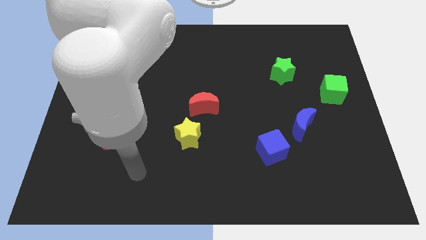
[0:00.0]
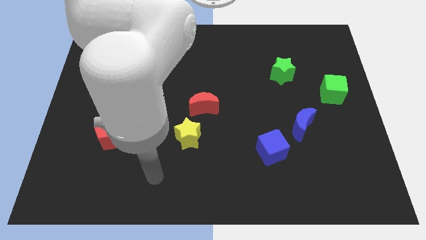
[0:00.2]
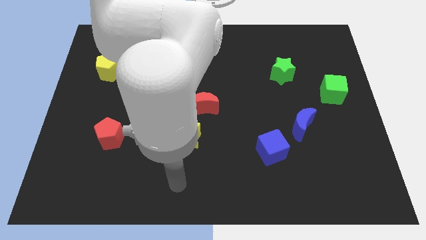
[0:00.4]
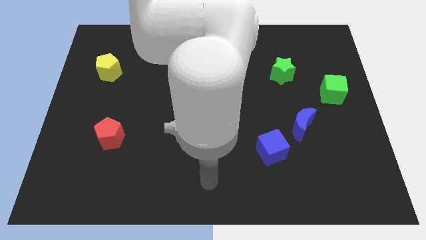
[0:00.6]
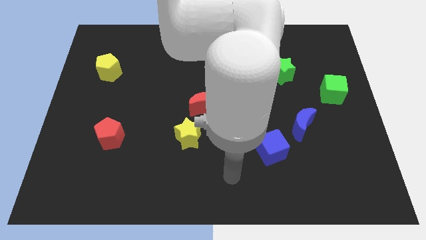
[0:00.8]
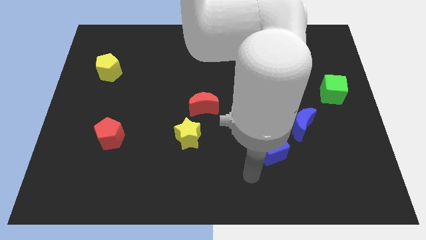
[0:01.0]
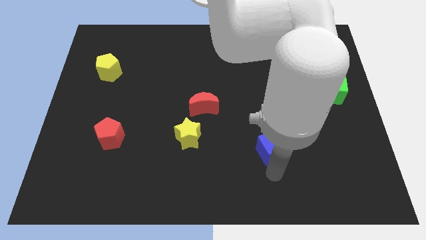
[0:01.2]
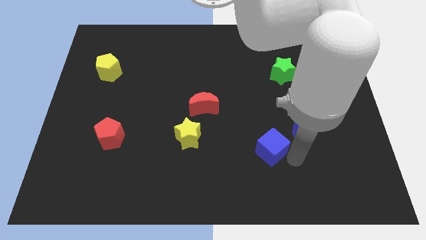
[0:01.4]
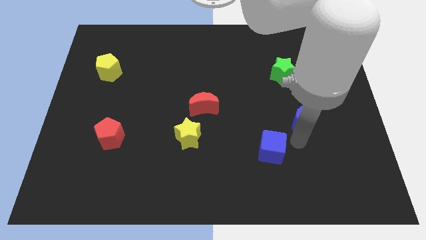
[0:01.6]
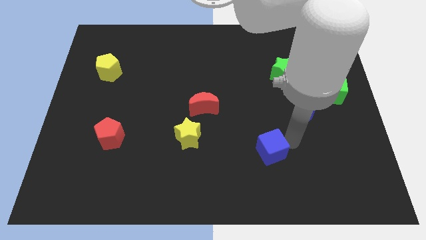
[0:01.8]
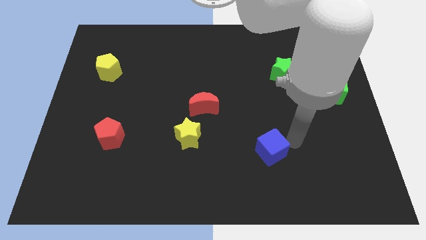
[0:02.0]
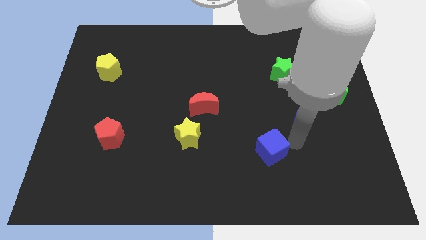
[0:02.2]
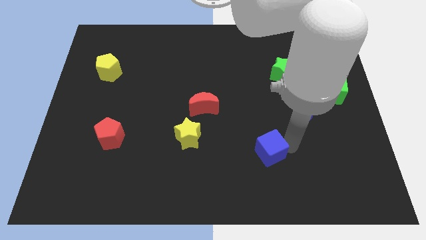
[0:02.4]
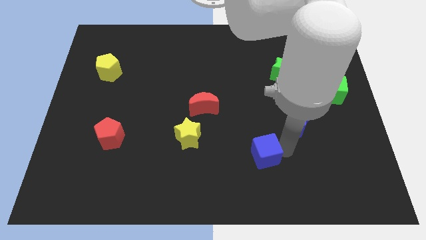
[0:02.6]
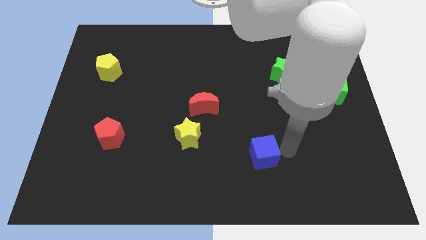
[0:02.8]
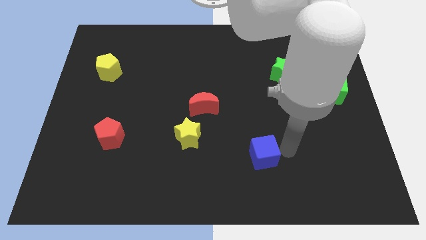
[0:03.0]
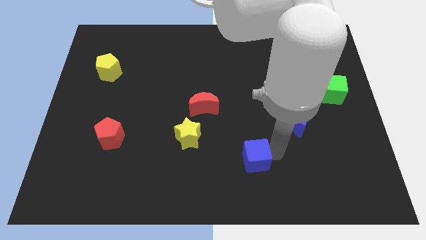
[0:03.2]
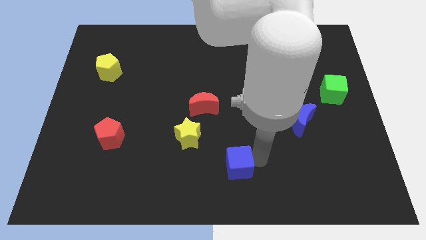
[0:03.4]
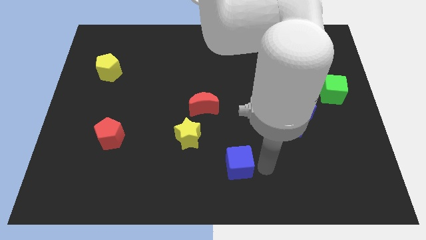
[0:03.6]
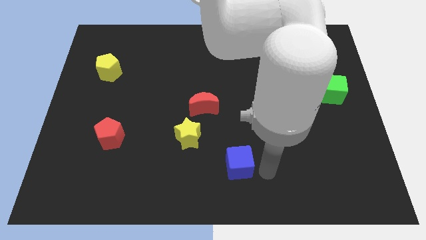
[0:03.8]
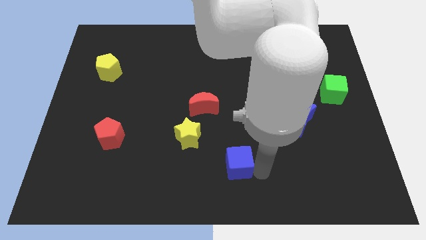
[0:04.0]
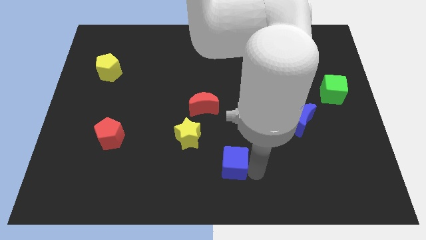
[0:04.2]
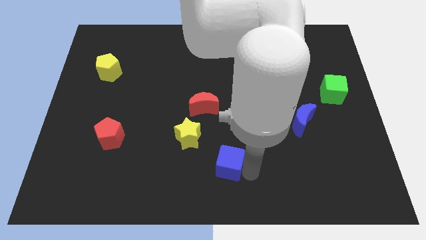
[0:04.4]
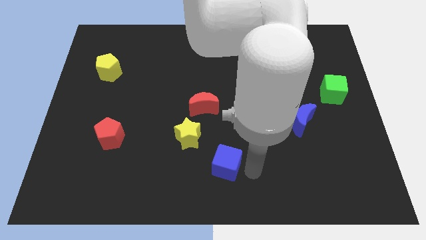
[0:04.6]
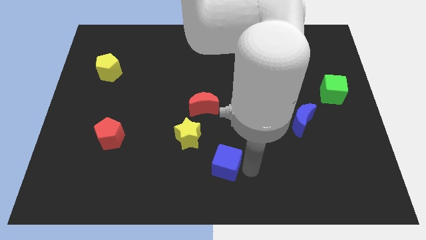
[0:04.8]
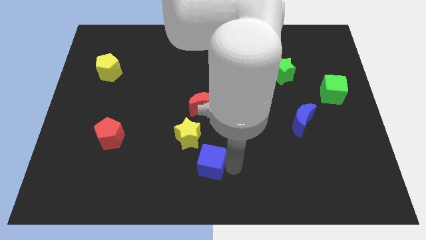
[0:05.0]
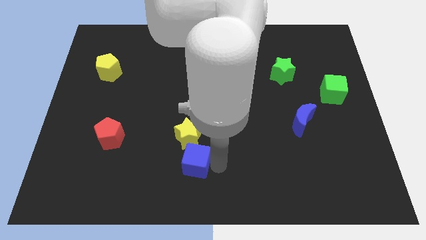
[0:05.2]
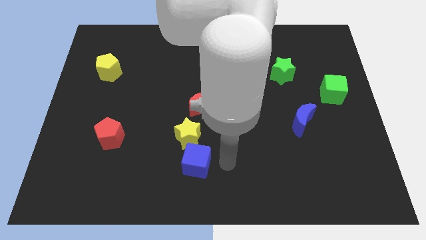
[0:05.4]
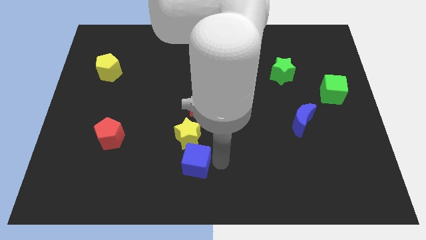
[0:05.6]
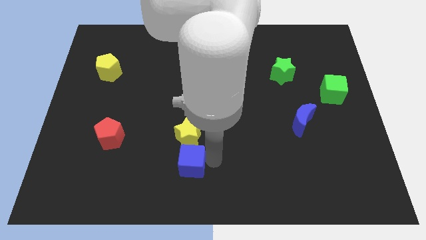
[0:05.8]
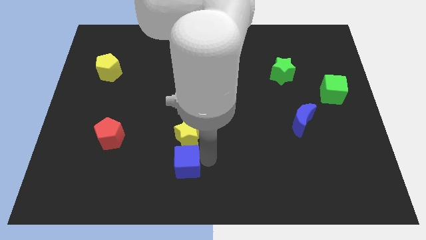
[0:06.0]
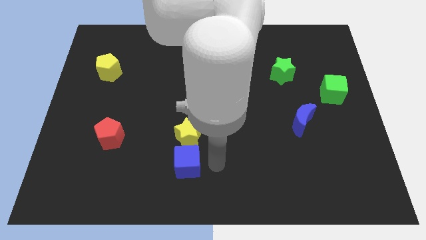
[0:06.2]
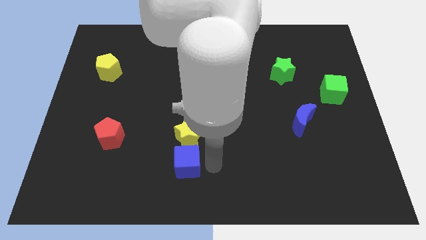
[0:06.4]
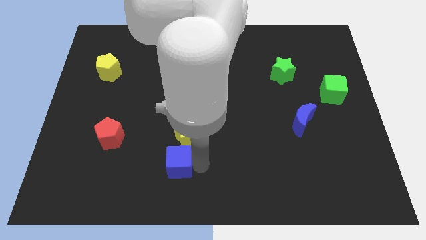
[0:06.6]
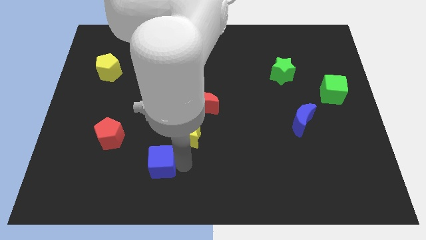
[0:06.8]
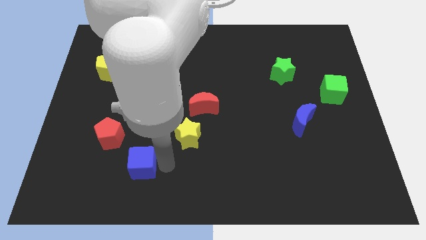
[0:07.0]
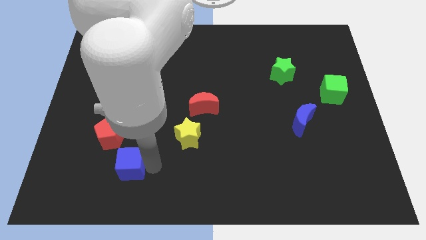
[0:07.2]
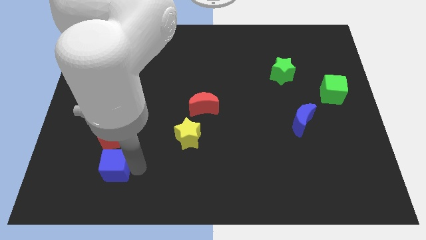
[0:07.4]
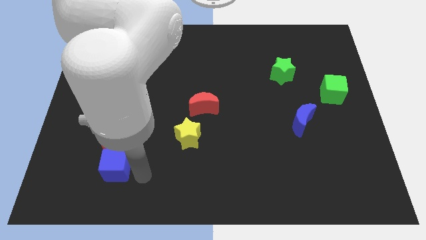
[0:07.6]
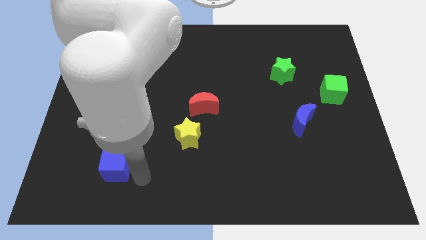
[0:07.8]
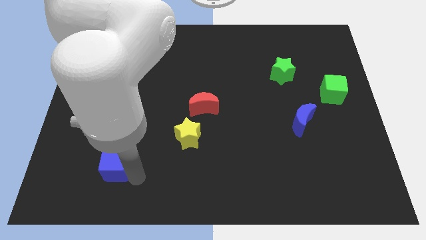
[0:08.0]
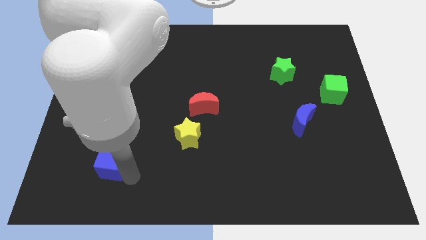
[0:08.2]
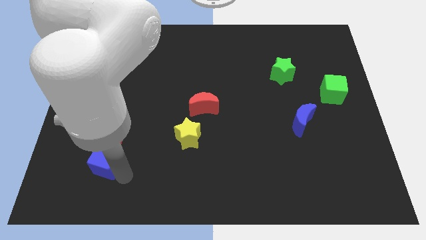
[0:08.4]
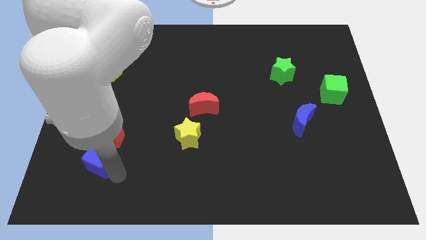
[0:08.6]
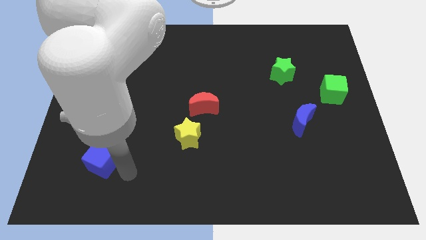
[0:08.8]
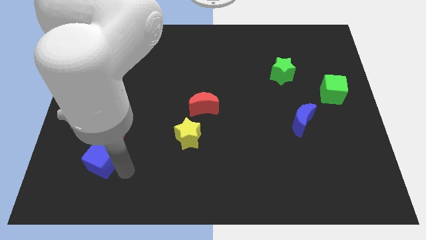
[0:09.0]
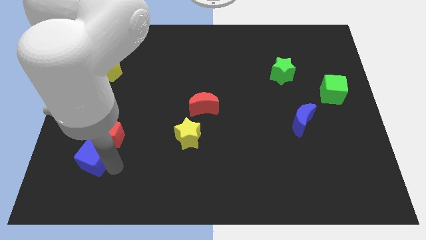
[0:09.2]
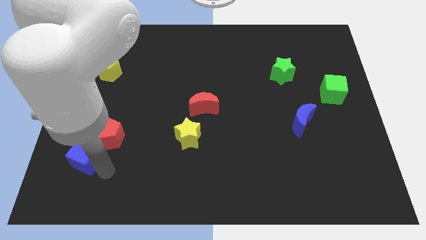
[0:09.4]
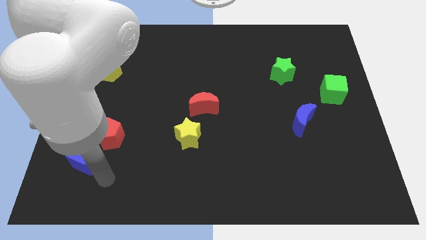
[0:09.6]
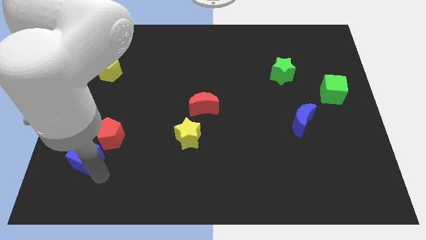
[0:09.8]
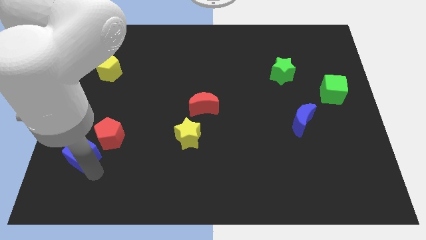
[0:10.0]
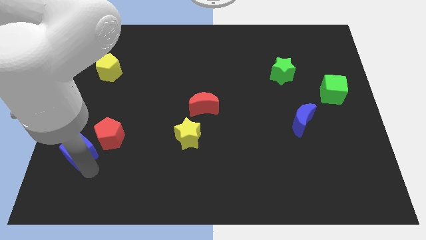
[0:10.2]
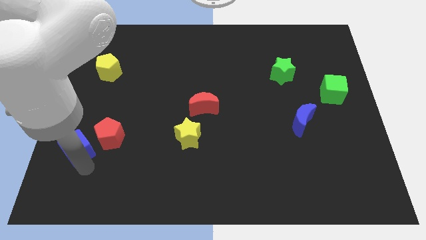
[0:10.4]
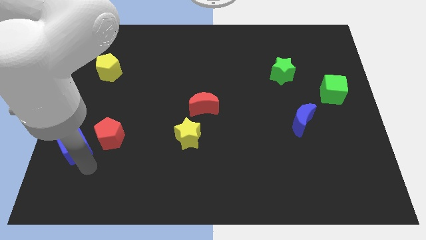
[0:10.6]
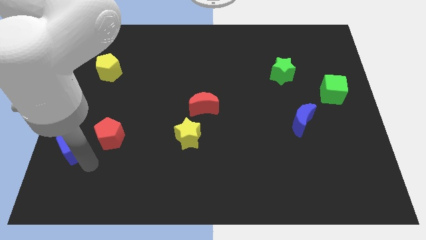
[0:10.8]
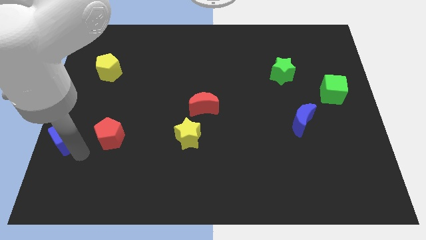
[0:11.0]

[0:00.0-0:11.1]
put the blue cube to the left side of the board
